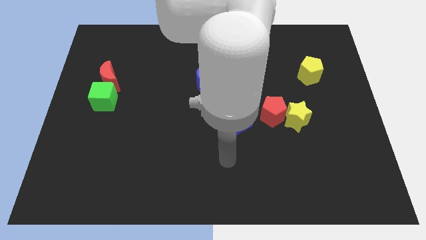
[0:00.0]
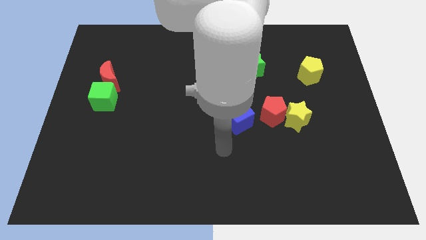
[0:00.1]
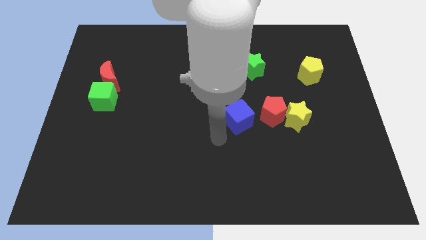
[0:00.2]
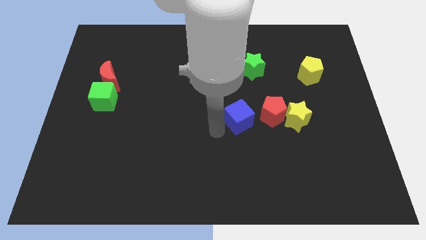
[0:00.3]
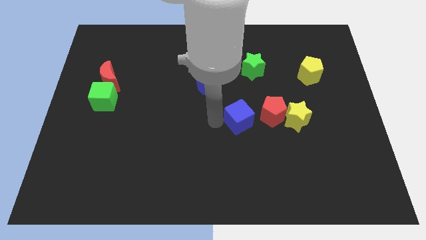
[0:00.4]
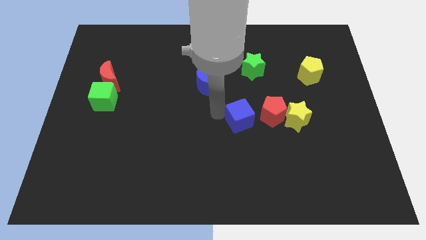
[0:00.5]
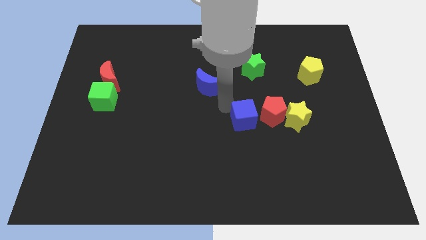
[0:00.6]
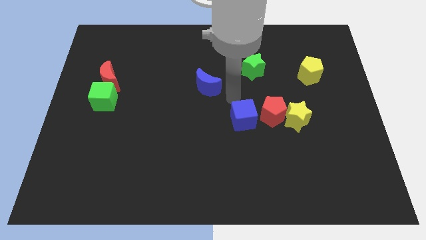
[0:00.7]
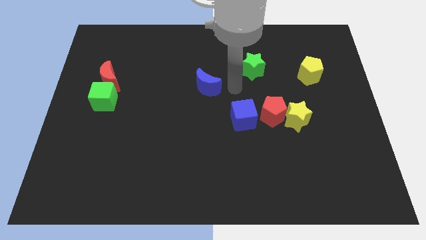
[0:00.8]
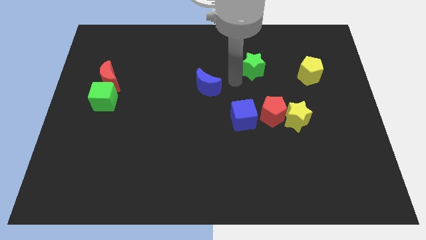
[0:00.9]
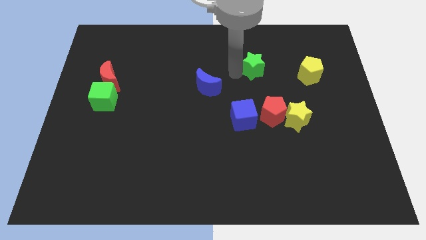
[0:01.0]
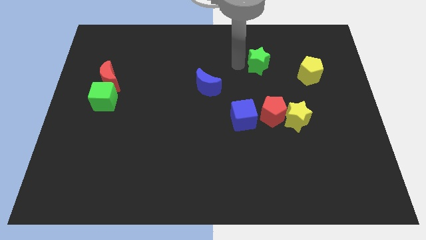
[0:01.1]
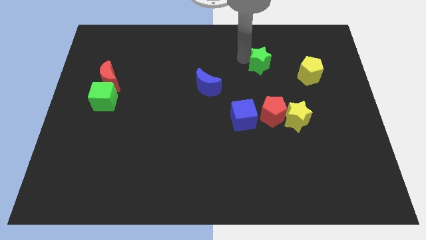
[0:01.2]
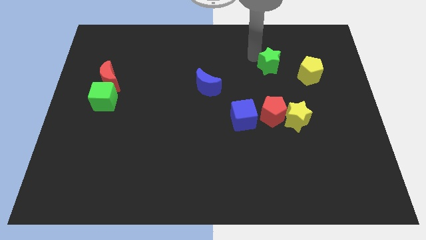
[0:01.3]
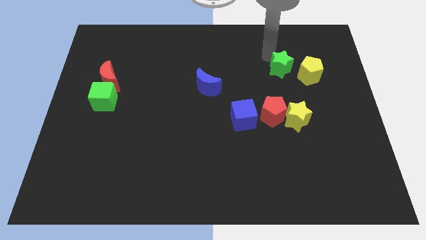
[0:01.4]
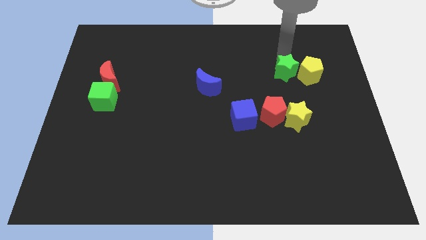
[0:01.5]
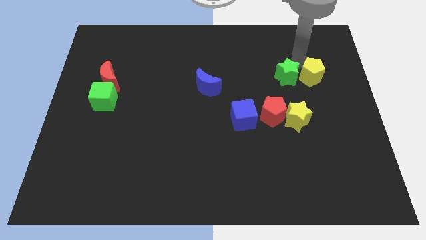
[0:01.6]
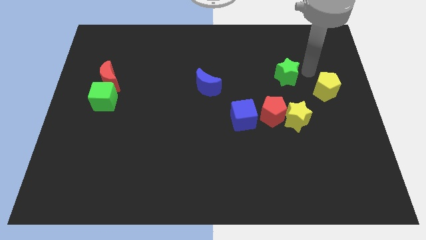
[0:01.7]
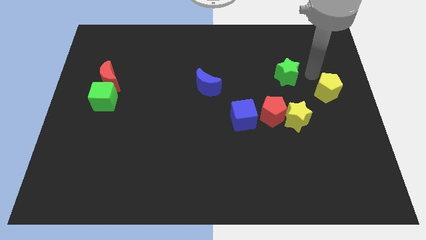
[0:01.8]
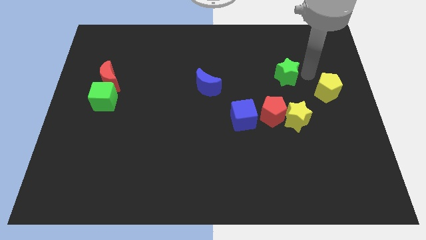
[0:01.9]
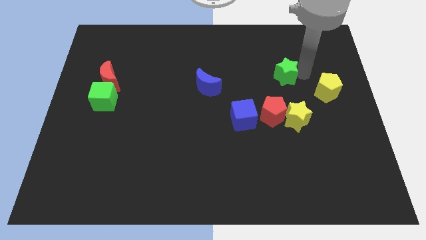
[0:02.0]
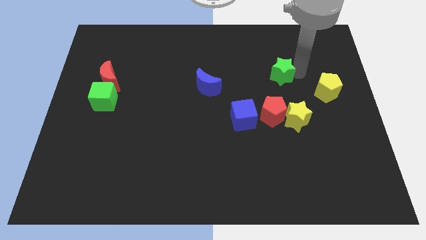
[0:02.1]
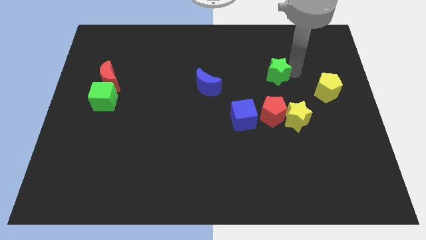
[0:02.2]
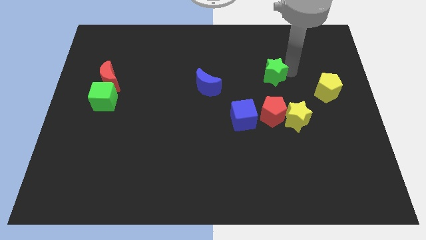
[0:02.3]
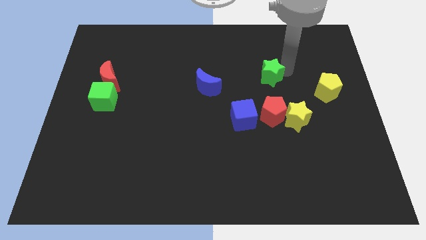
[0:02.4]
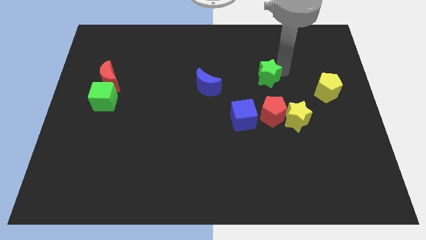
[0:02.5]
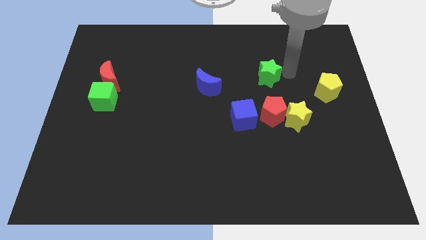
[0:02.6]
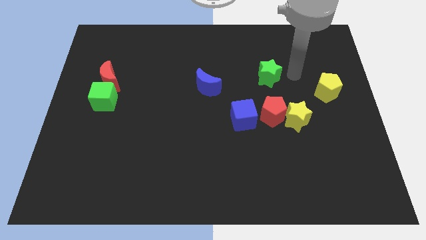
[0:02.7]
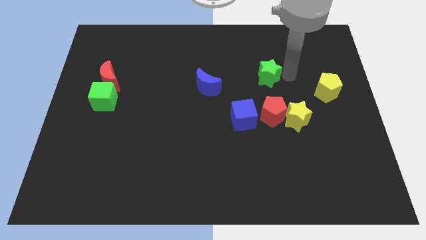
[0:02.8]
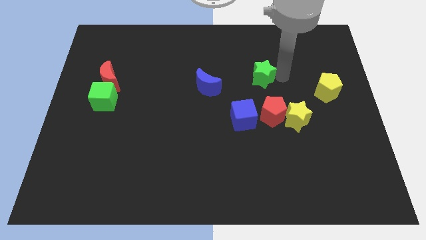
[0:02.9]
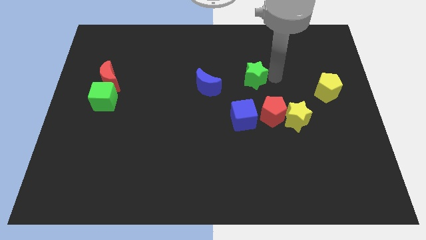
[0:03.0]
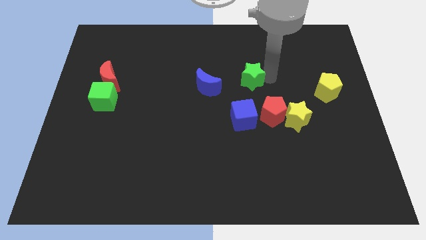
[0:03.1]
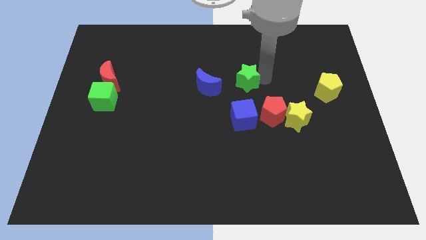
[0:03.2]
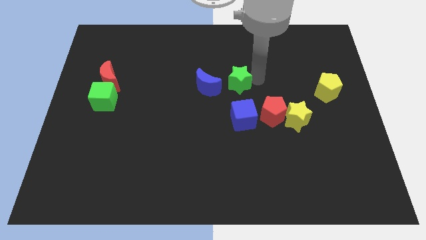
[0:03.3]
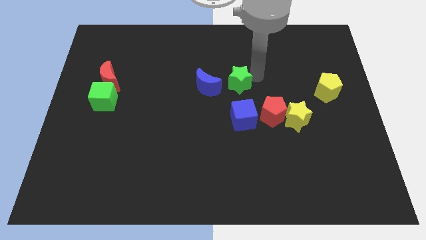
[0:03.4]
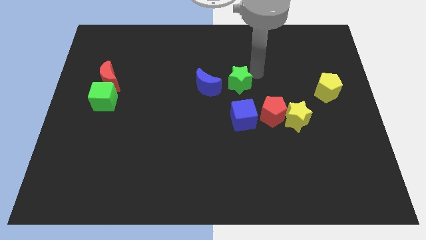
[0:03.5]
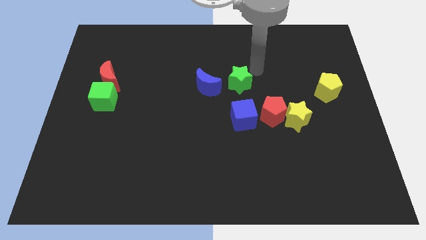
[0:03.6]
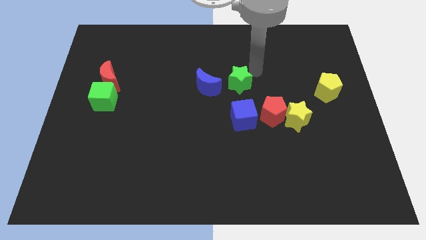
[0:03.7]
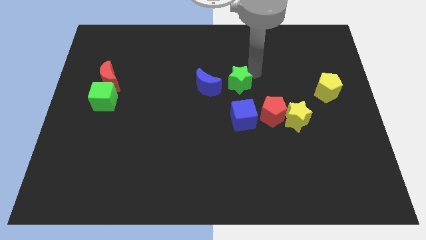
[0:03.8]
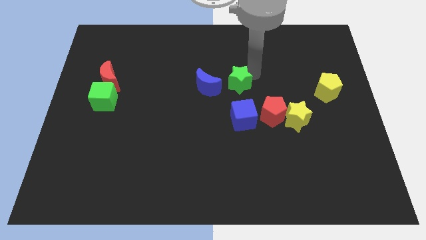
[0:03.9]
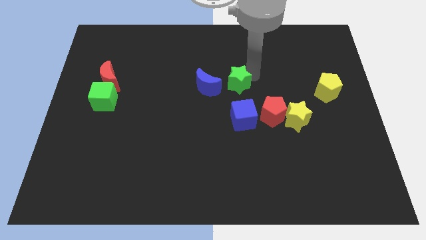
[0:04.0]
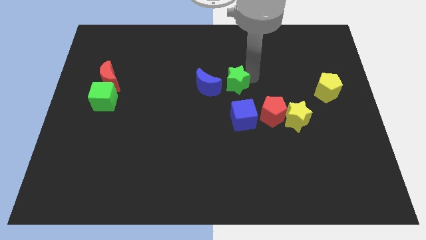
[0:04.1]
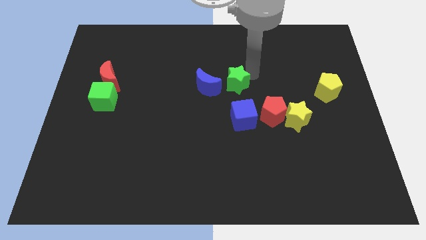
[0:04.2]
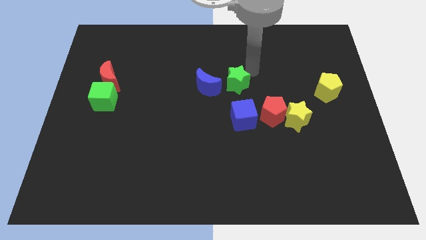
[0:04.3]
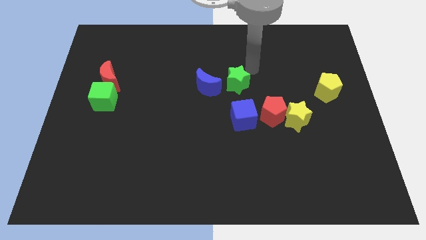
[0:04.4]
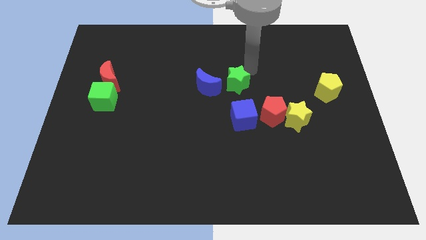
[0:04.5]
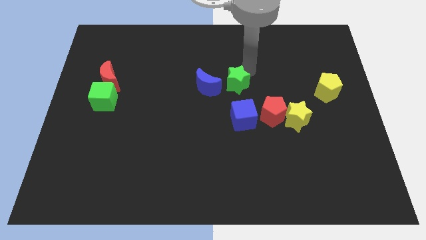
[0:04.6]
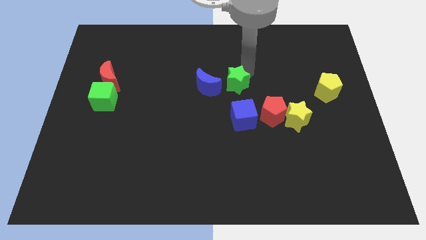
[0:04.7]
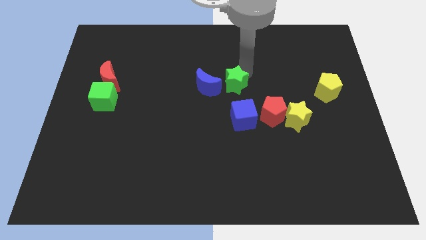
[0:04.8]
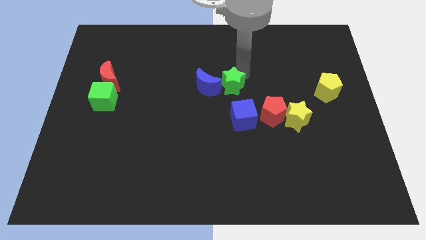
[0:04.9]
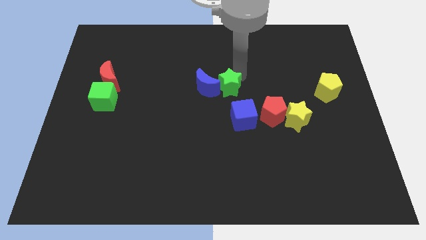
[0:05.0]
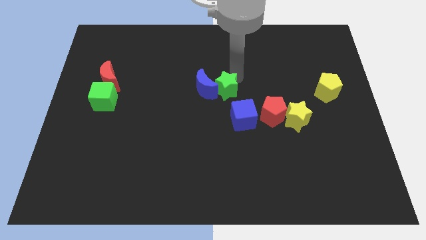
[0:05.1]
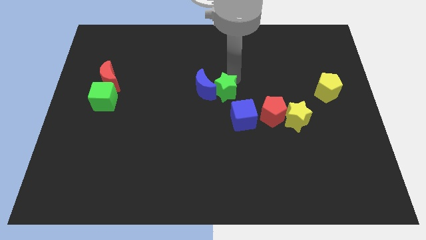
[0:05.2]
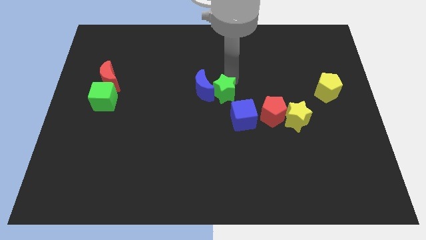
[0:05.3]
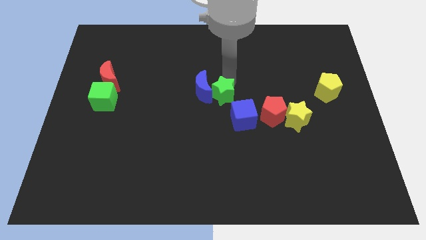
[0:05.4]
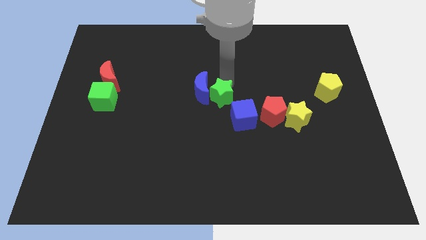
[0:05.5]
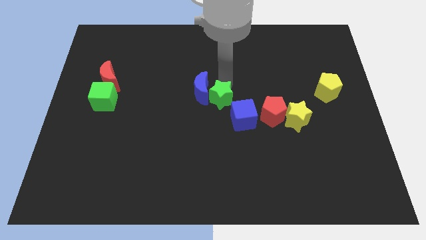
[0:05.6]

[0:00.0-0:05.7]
slide the green star a little bit down

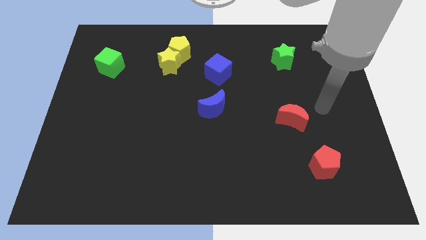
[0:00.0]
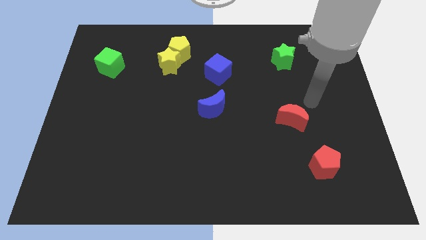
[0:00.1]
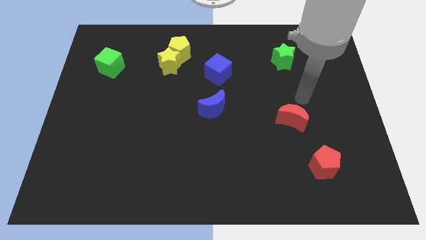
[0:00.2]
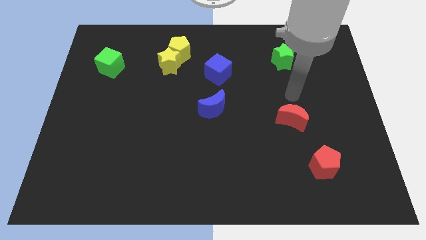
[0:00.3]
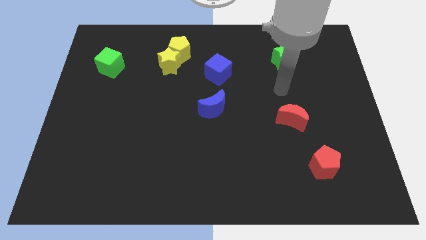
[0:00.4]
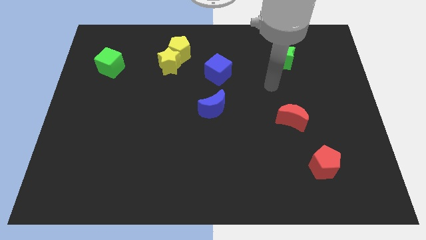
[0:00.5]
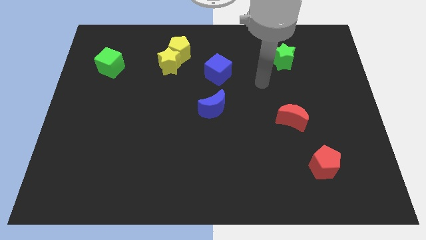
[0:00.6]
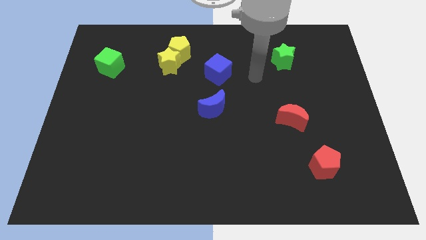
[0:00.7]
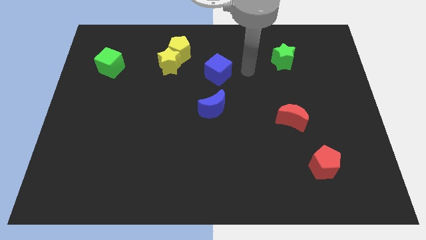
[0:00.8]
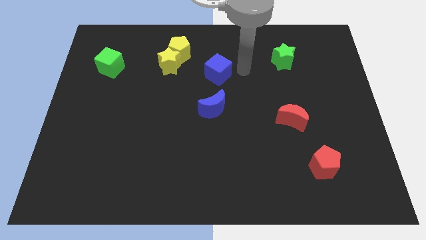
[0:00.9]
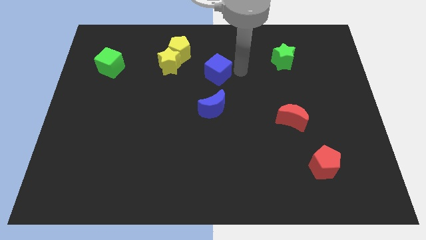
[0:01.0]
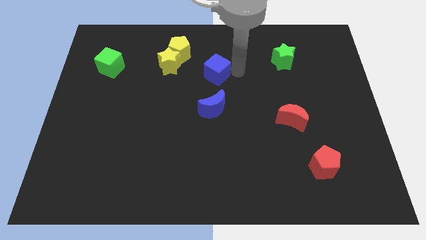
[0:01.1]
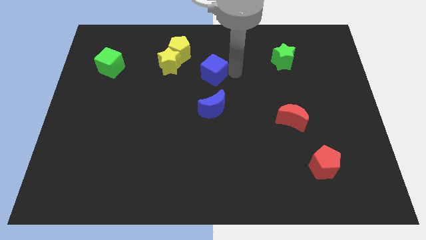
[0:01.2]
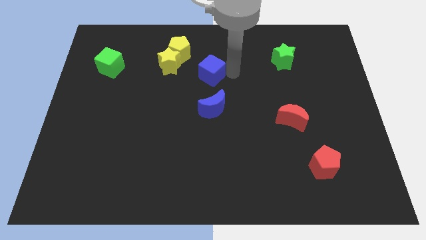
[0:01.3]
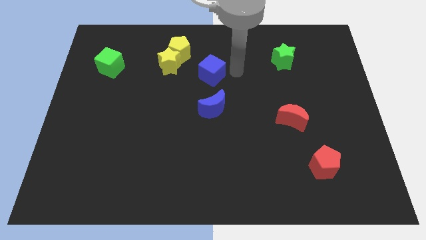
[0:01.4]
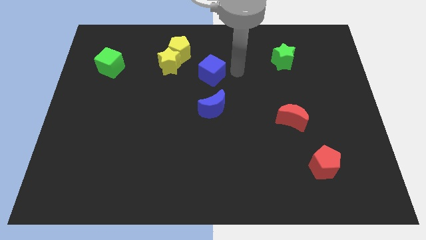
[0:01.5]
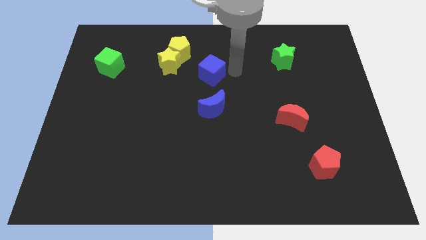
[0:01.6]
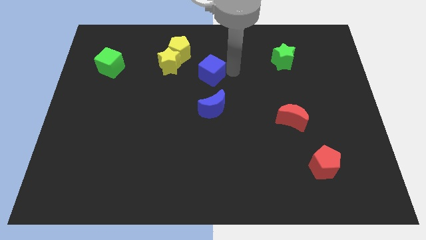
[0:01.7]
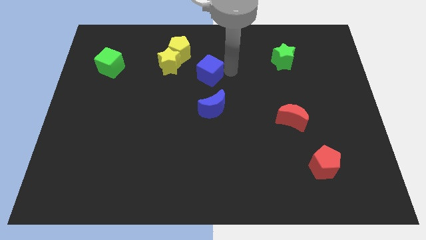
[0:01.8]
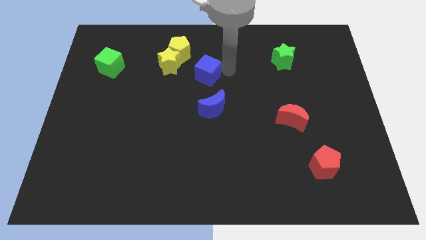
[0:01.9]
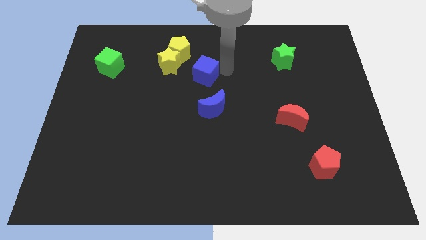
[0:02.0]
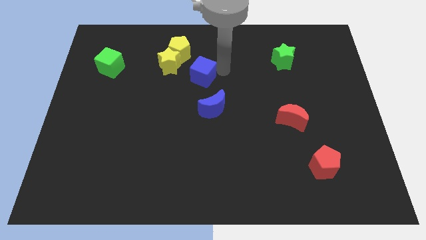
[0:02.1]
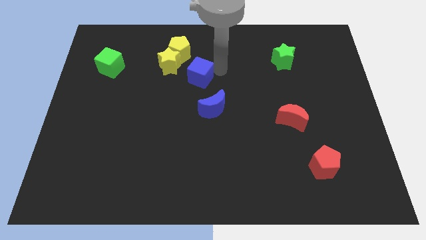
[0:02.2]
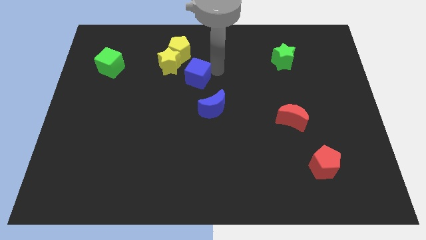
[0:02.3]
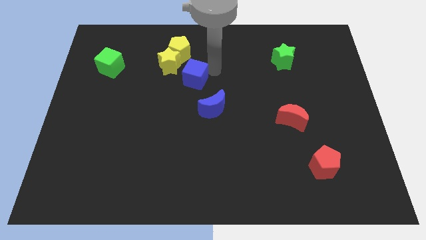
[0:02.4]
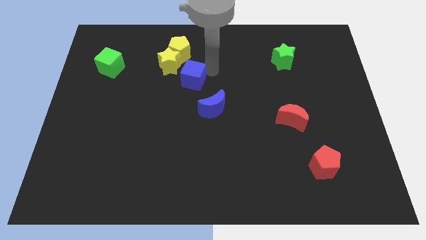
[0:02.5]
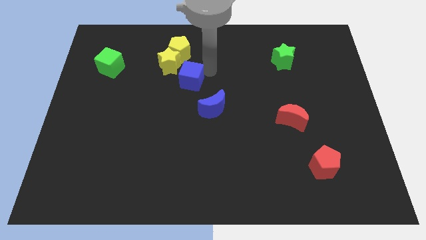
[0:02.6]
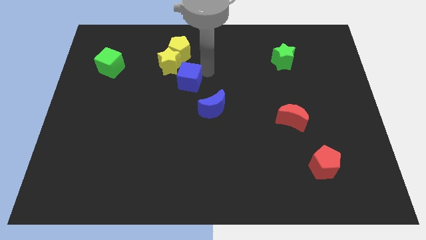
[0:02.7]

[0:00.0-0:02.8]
push the blue cube to the left slightly
